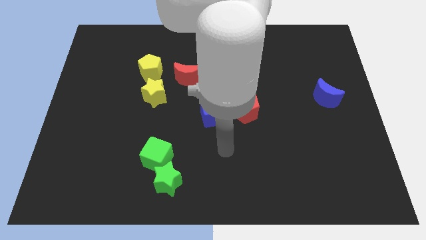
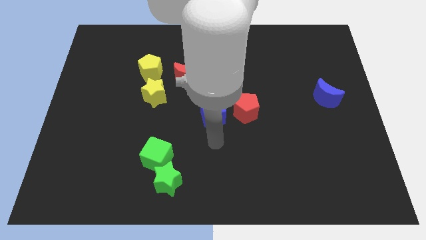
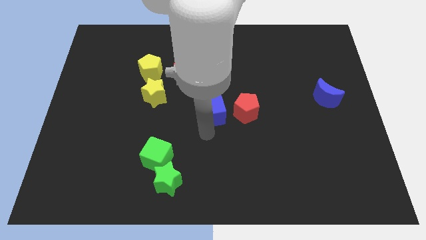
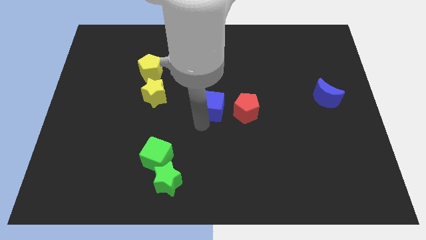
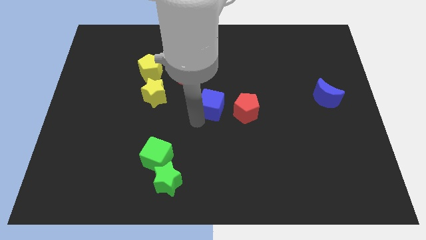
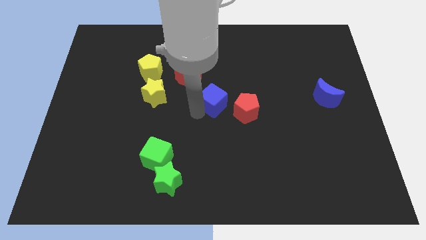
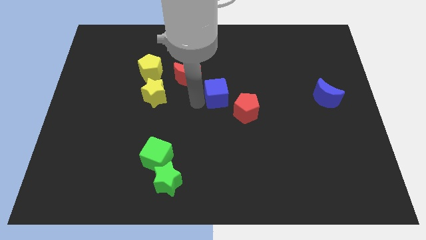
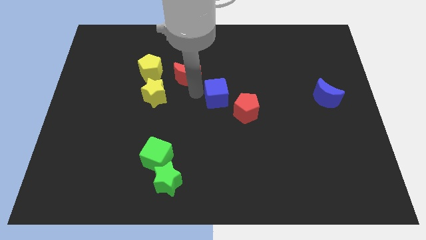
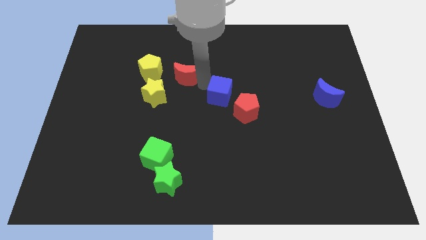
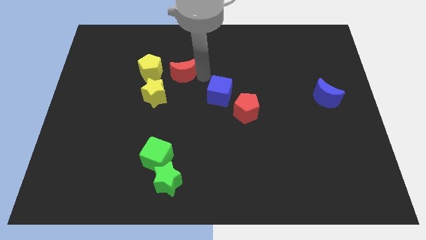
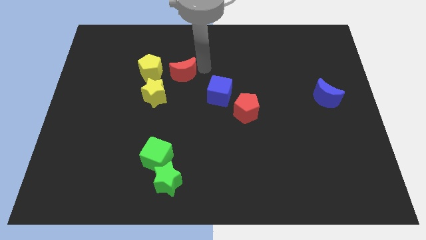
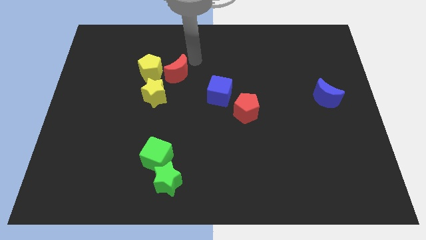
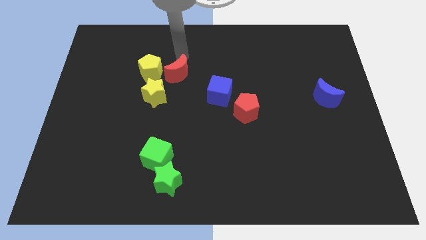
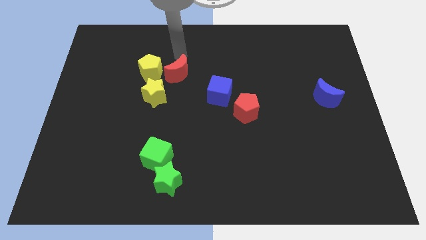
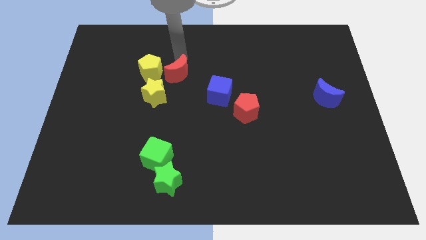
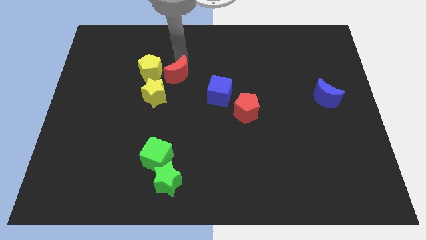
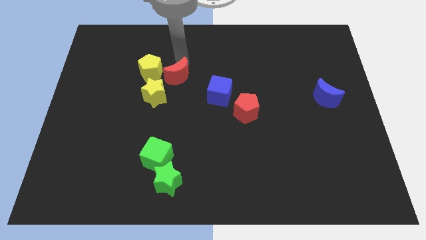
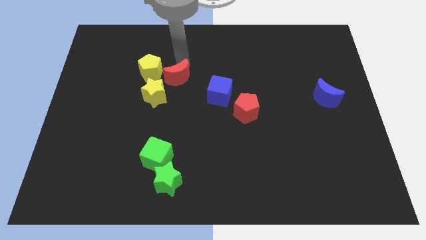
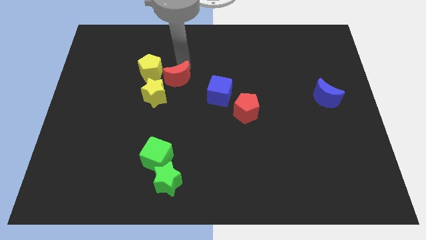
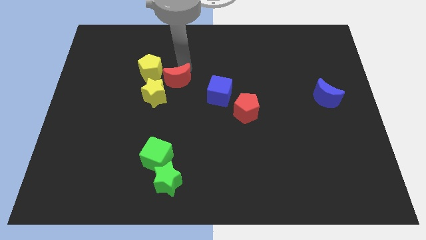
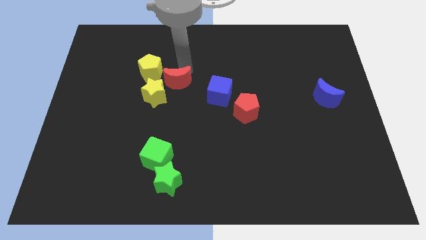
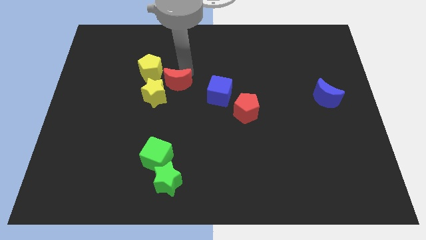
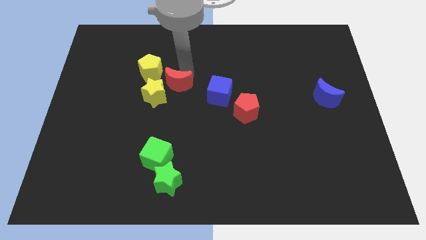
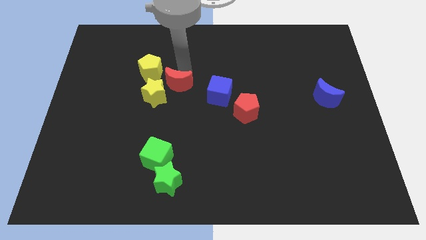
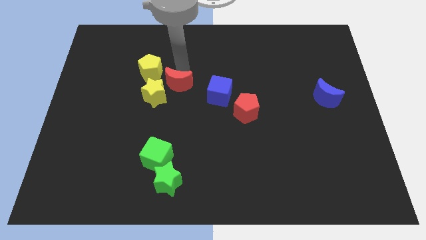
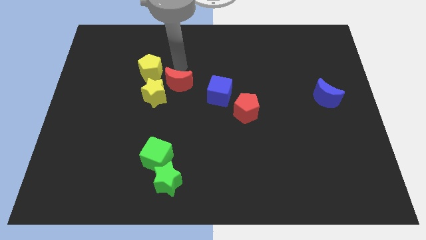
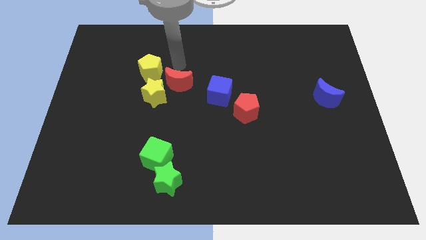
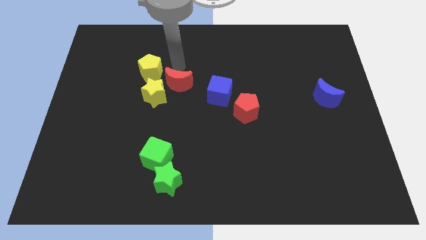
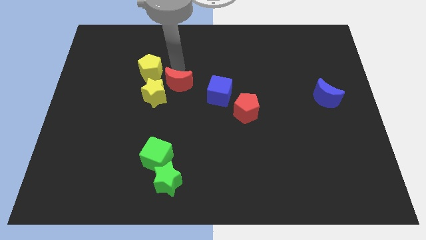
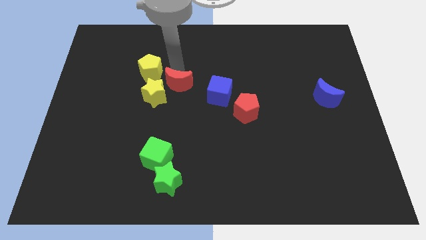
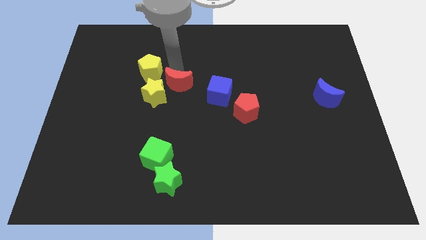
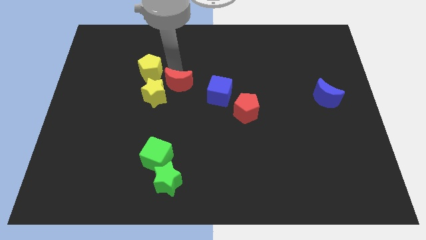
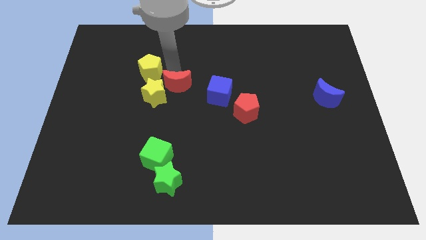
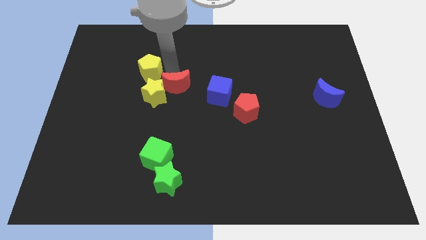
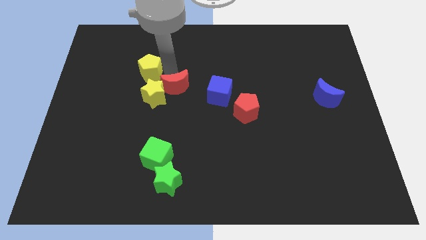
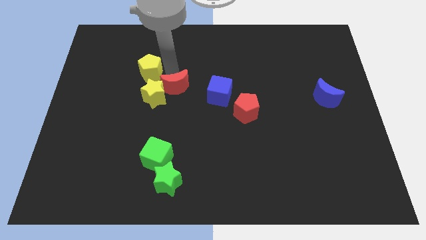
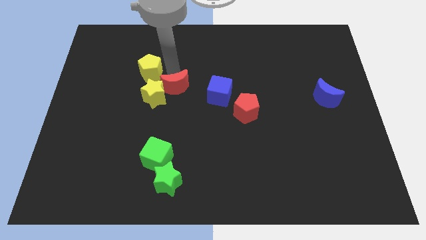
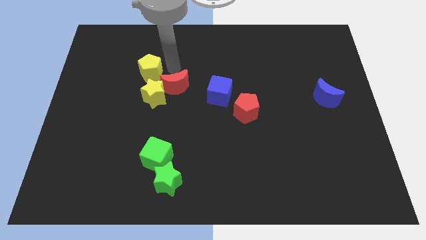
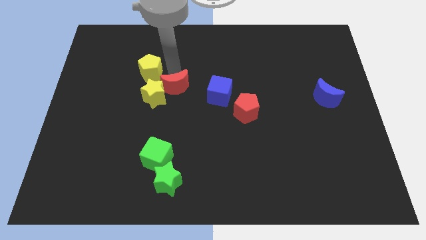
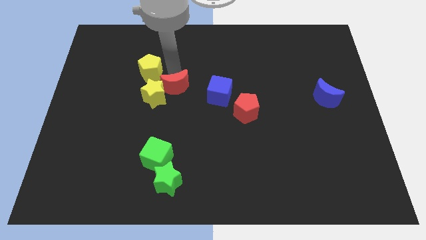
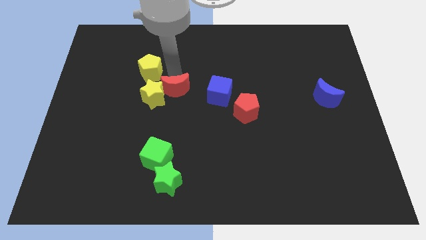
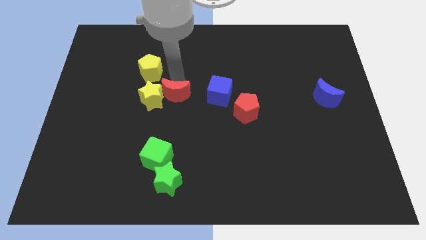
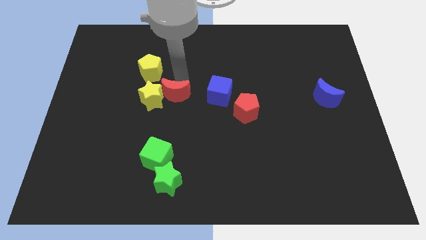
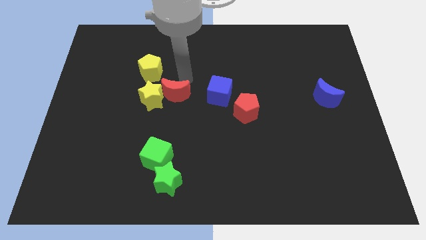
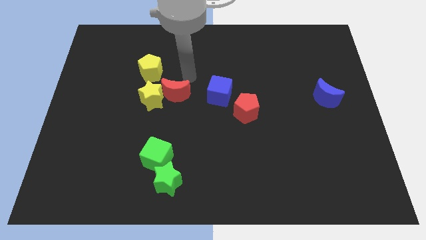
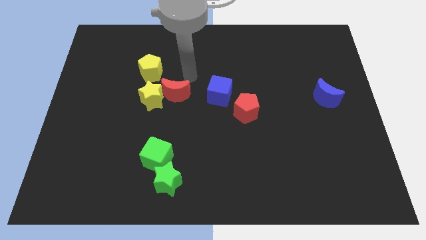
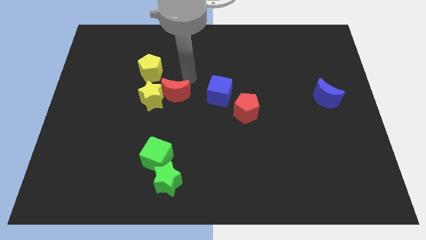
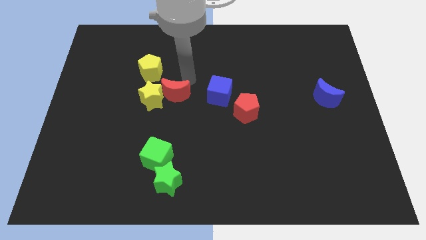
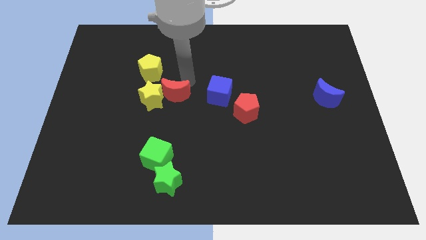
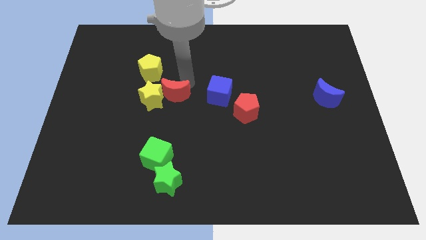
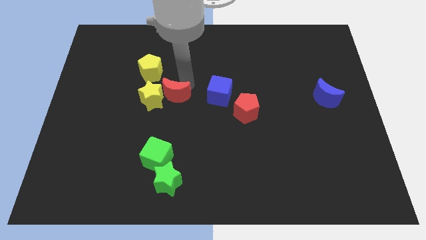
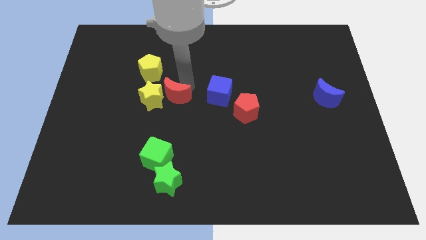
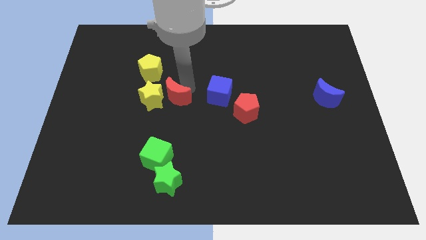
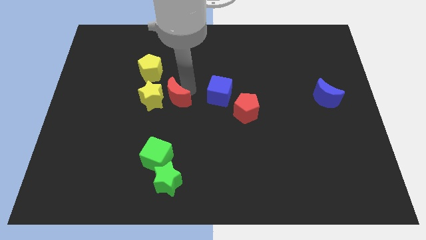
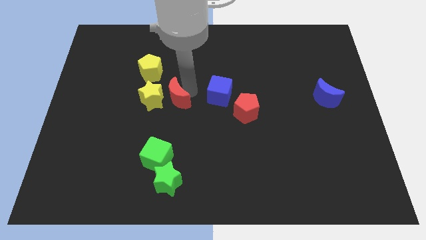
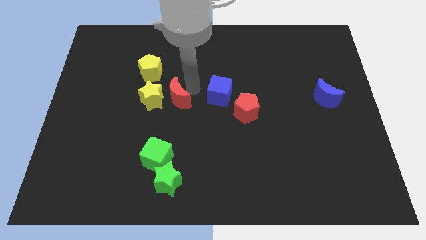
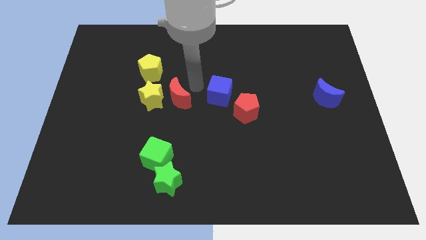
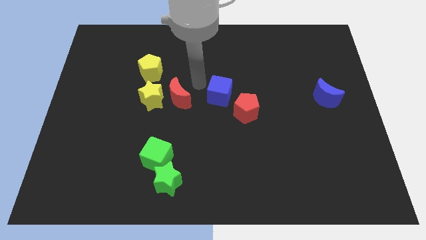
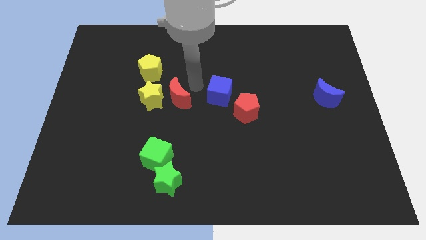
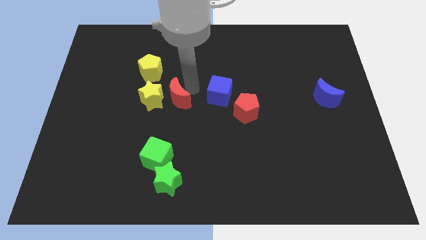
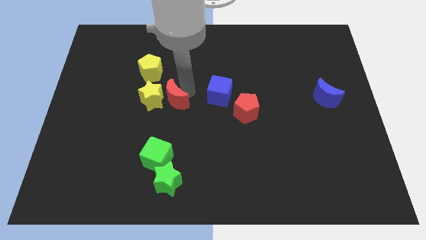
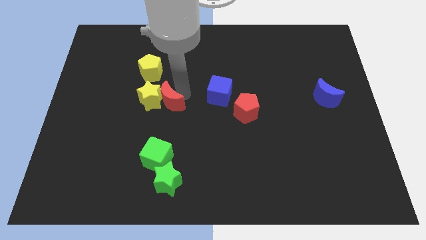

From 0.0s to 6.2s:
move the red moon downwards and left diagonally a little

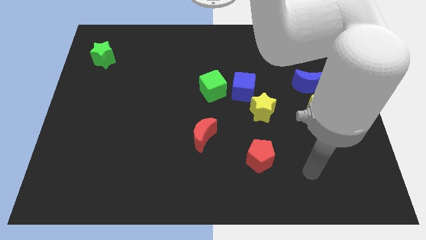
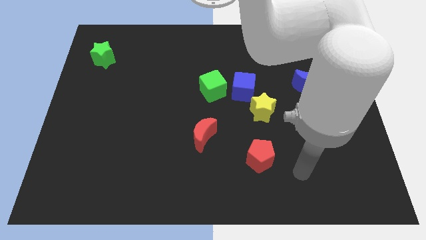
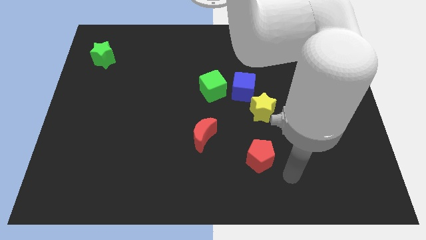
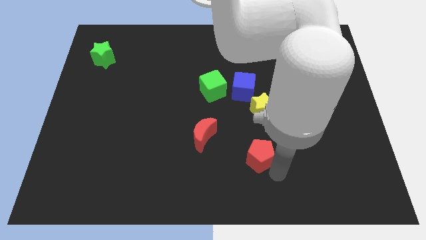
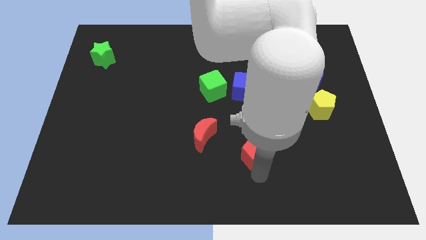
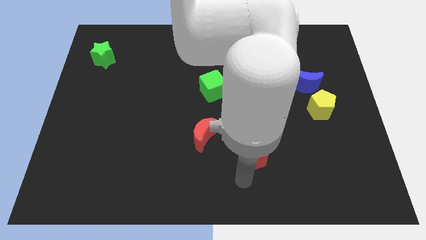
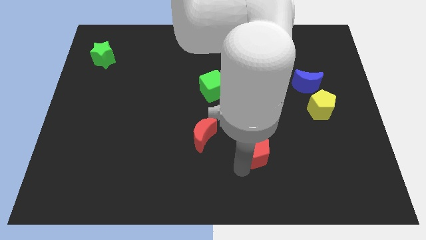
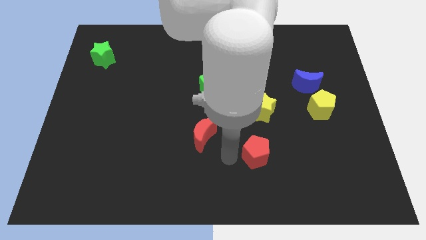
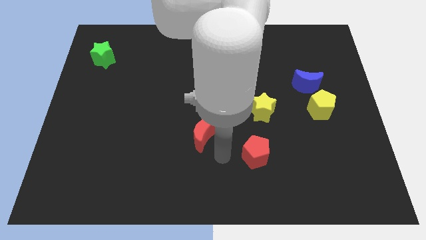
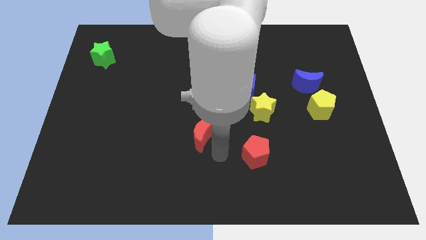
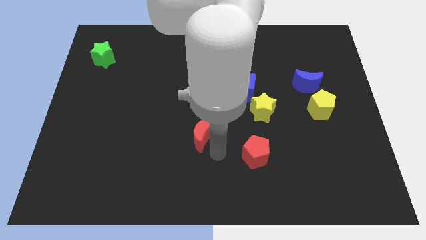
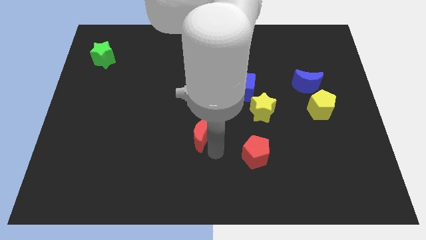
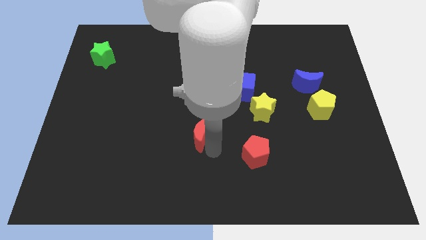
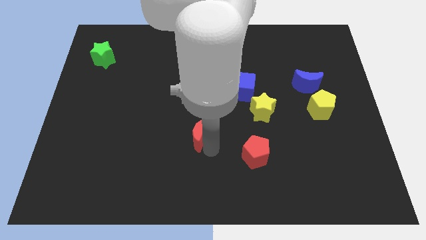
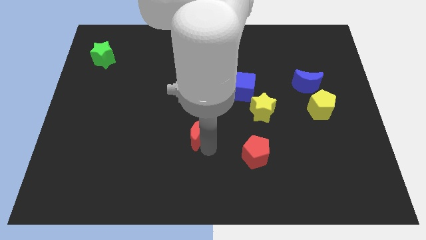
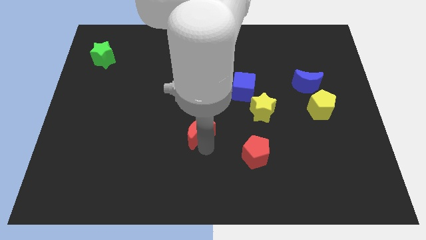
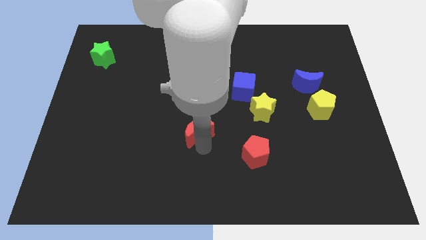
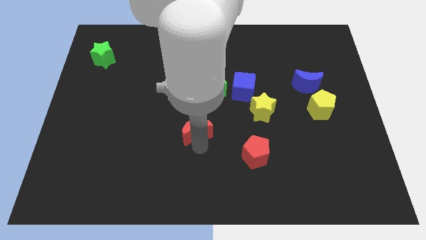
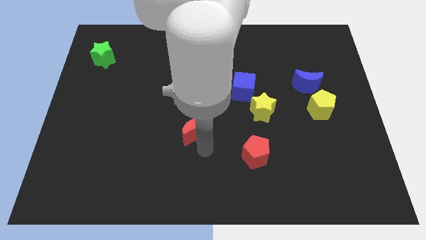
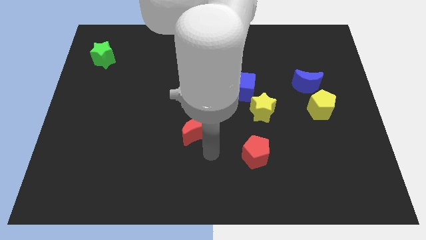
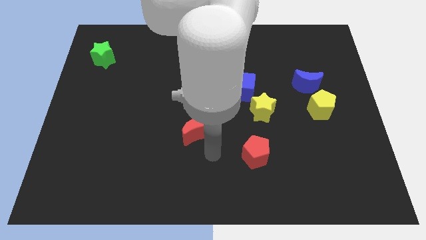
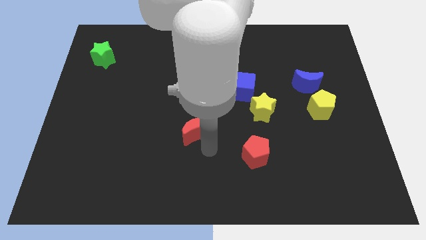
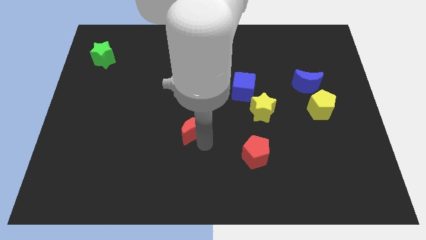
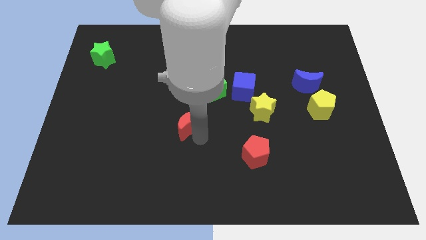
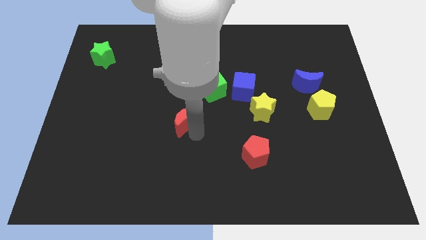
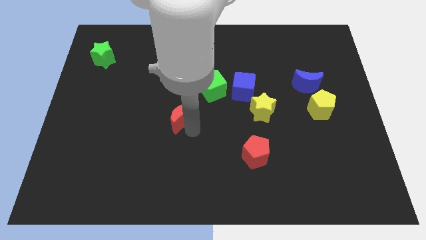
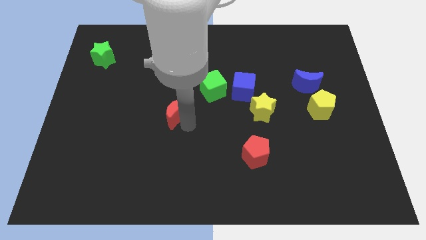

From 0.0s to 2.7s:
move the red moon diagonally upwards and to the left a bit
